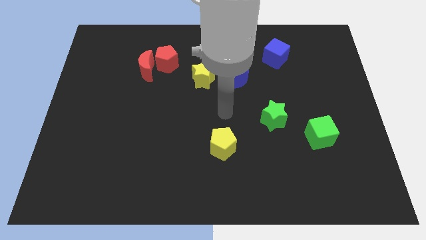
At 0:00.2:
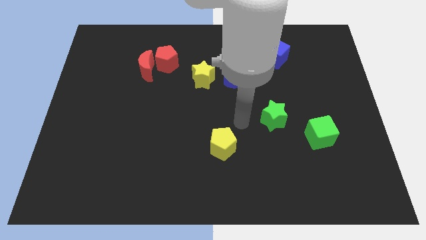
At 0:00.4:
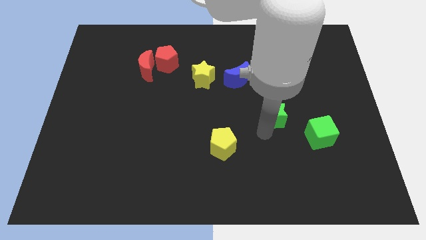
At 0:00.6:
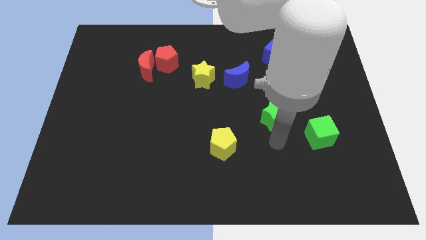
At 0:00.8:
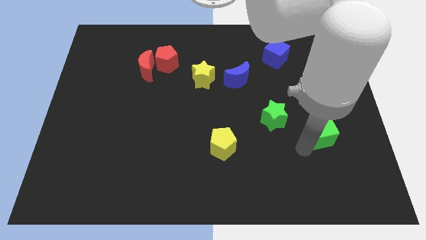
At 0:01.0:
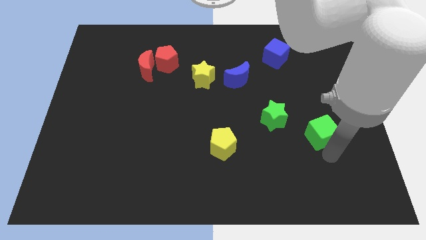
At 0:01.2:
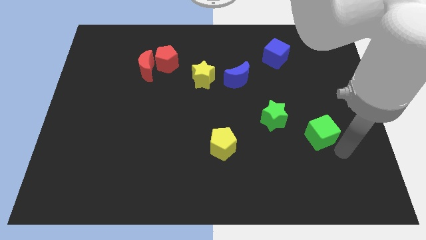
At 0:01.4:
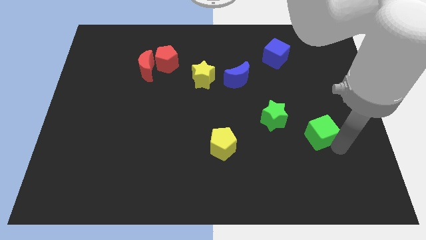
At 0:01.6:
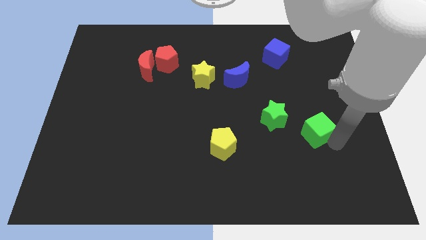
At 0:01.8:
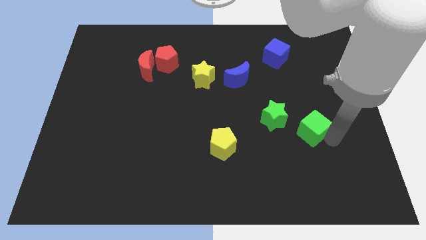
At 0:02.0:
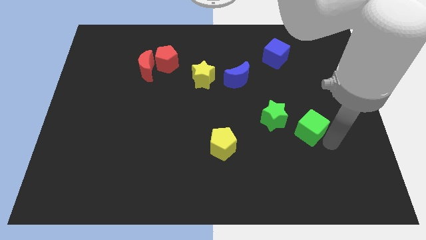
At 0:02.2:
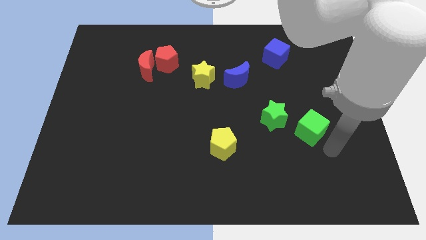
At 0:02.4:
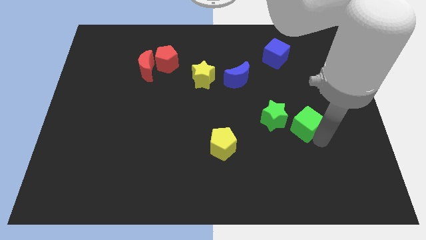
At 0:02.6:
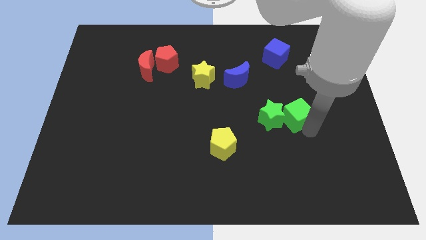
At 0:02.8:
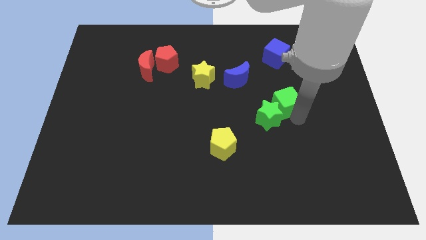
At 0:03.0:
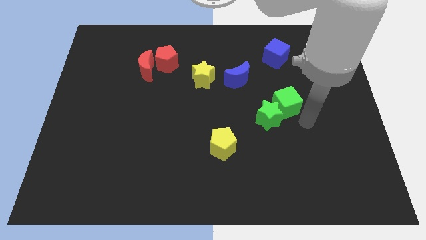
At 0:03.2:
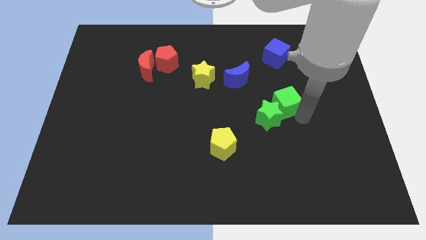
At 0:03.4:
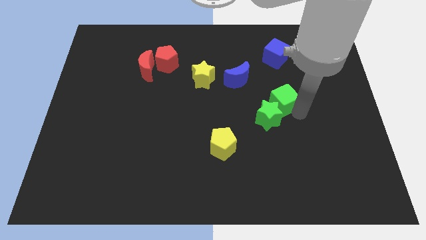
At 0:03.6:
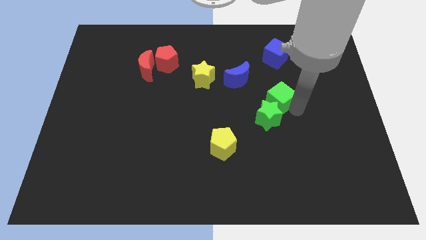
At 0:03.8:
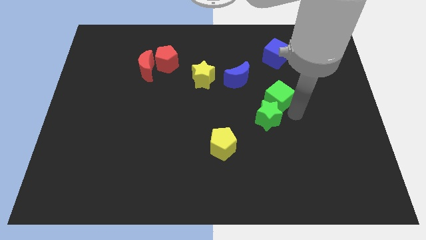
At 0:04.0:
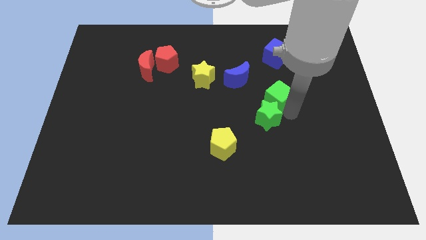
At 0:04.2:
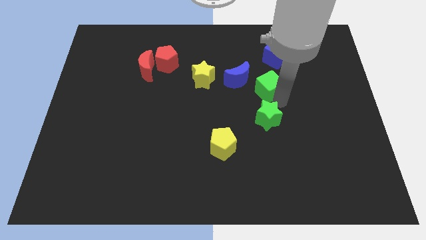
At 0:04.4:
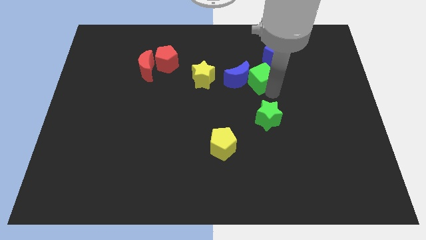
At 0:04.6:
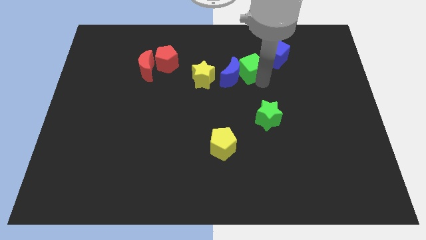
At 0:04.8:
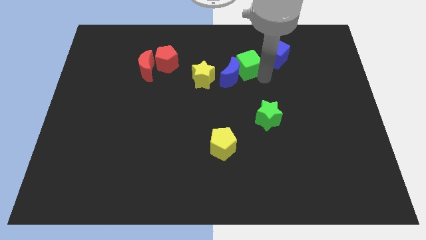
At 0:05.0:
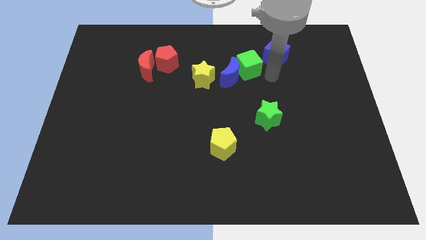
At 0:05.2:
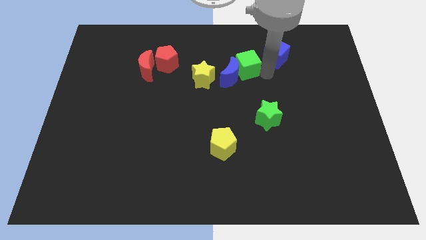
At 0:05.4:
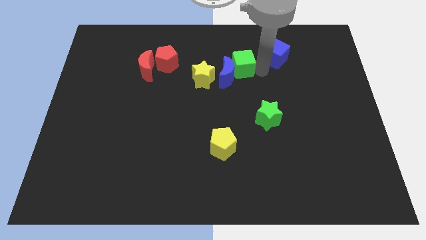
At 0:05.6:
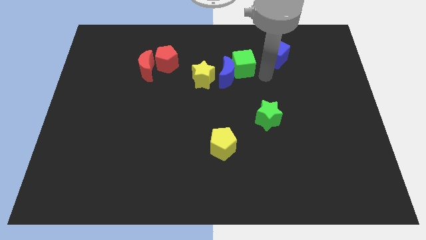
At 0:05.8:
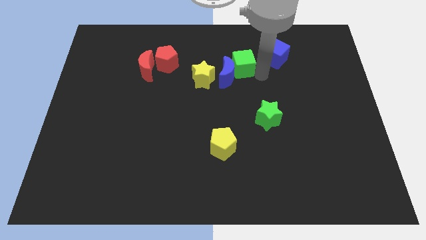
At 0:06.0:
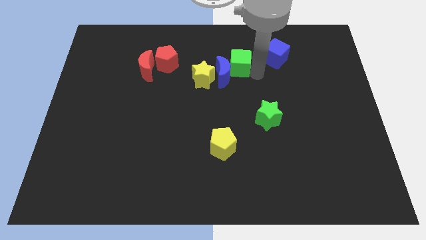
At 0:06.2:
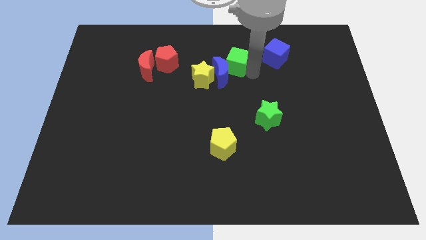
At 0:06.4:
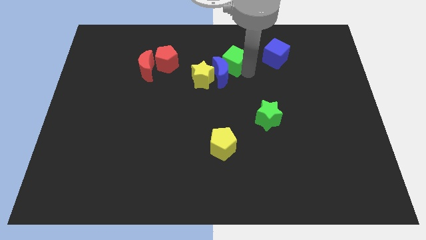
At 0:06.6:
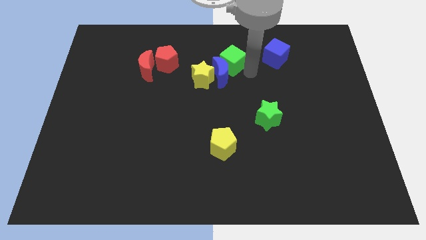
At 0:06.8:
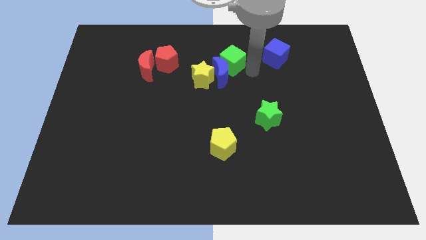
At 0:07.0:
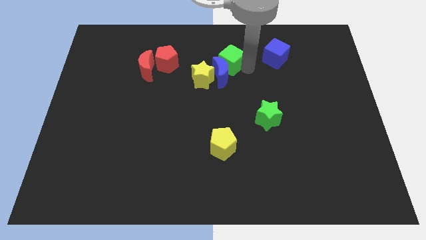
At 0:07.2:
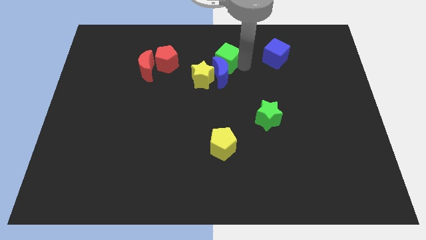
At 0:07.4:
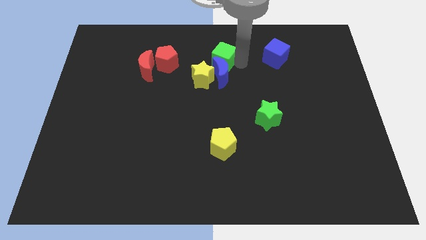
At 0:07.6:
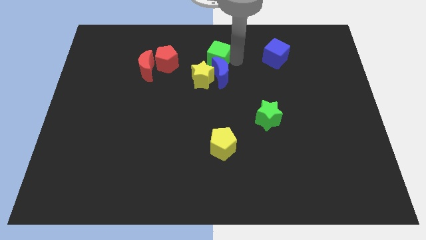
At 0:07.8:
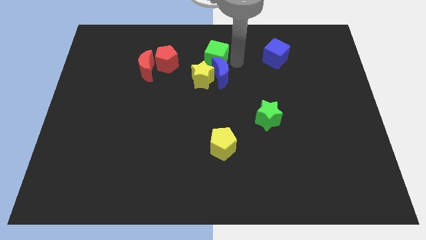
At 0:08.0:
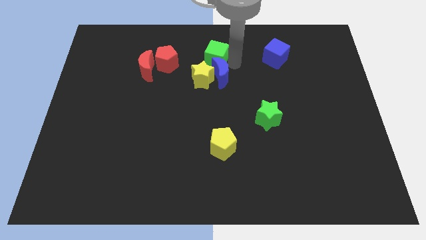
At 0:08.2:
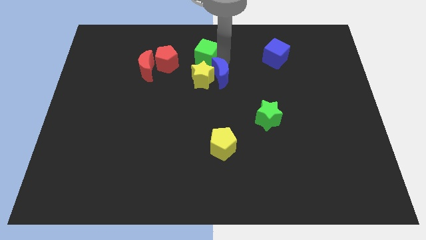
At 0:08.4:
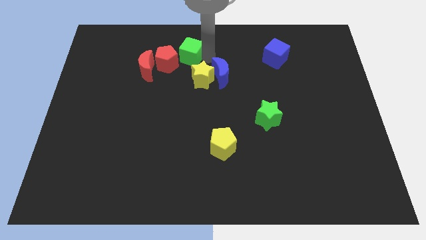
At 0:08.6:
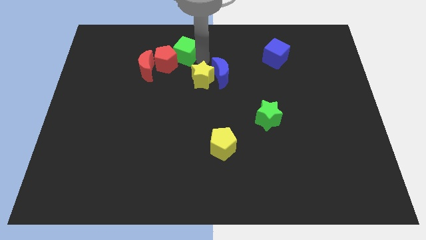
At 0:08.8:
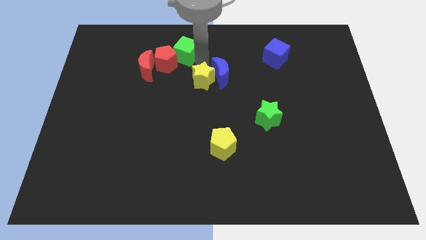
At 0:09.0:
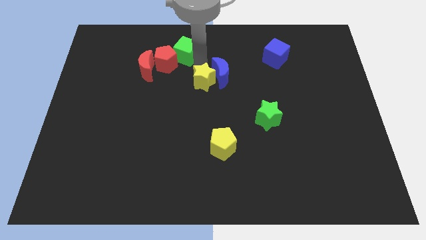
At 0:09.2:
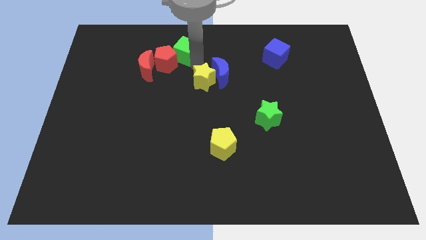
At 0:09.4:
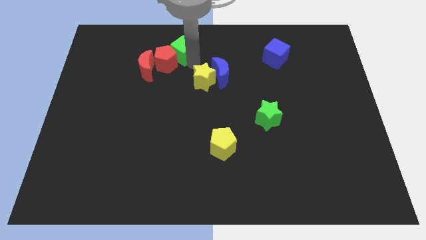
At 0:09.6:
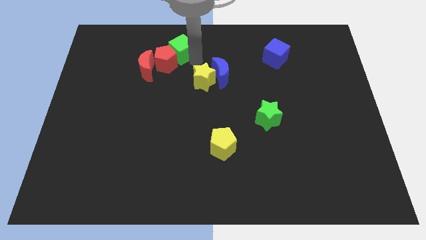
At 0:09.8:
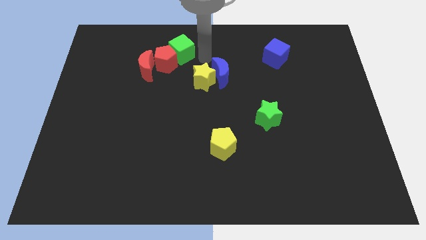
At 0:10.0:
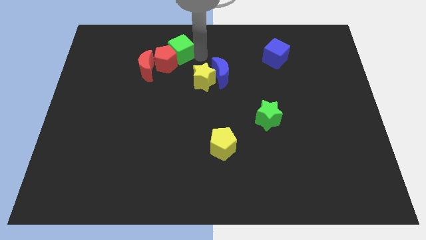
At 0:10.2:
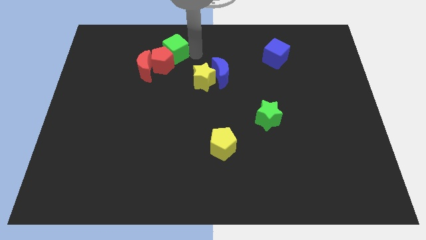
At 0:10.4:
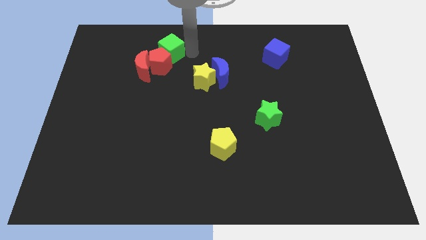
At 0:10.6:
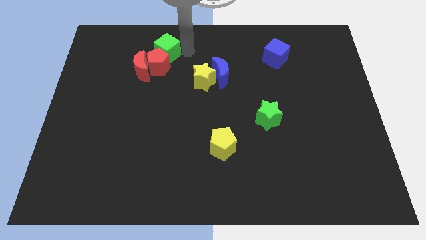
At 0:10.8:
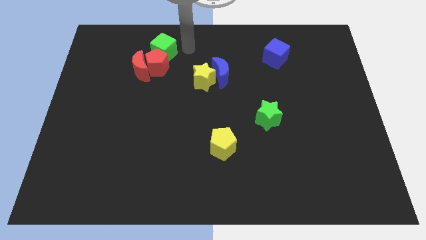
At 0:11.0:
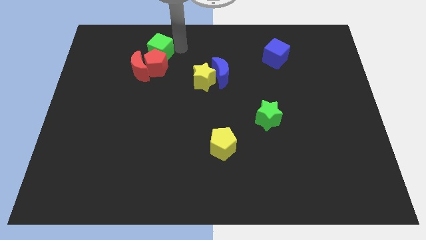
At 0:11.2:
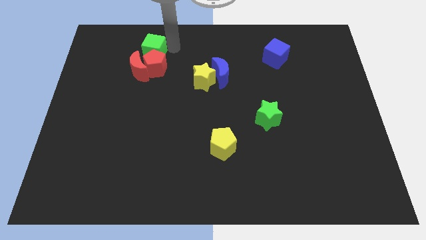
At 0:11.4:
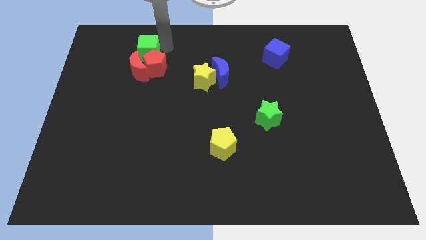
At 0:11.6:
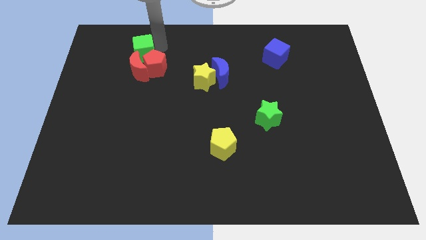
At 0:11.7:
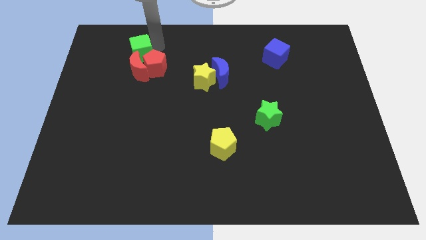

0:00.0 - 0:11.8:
move the green cube diagonally up and to the left of the red moon

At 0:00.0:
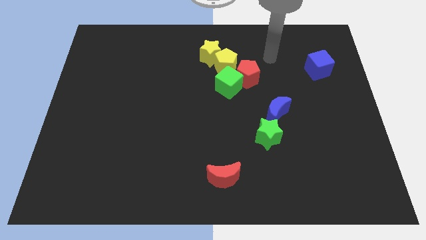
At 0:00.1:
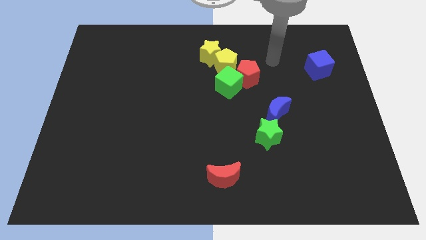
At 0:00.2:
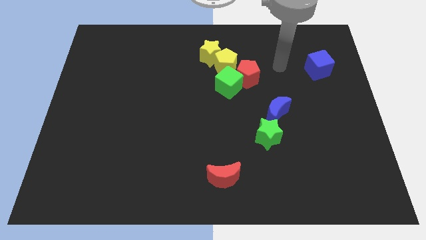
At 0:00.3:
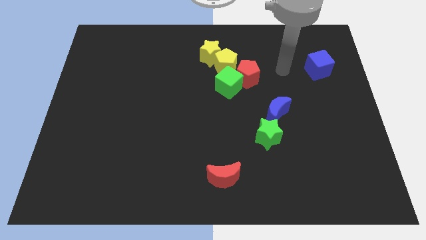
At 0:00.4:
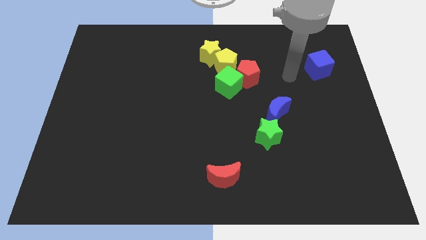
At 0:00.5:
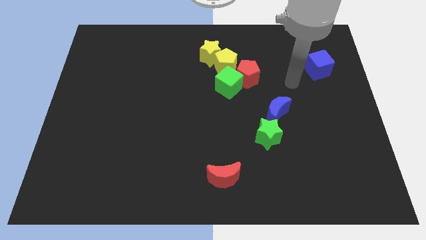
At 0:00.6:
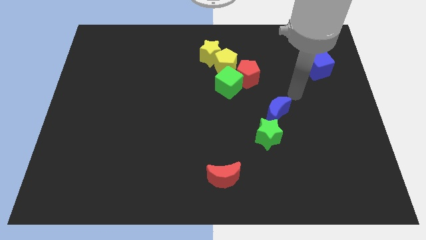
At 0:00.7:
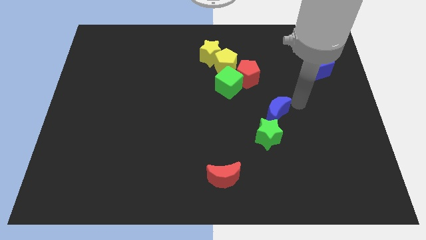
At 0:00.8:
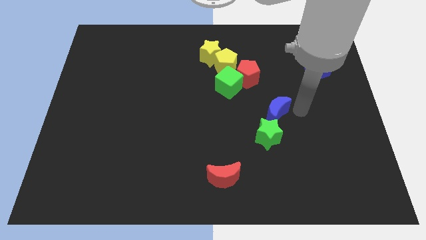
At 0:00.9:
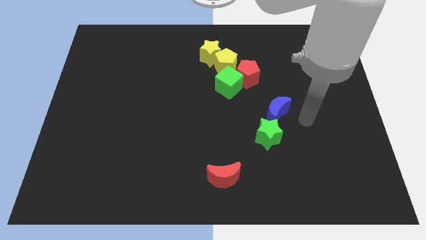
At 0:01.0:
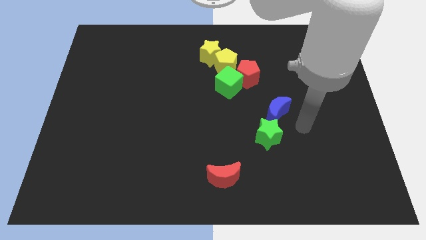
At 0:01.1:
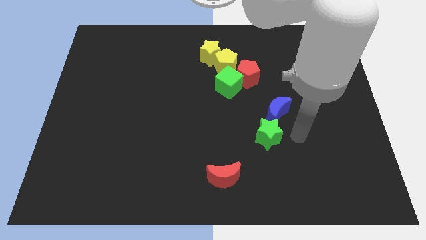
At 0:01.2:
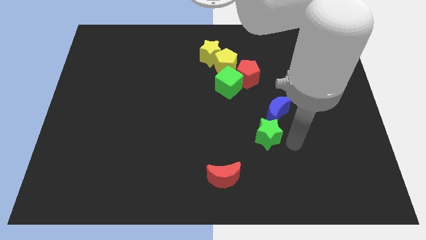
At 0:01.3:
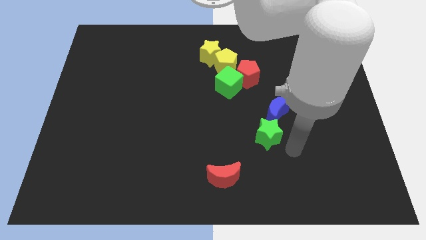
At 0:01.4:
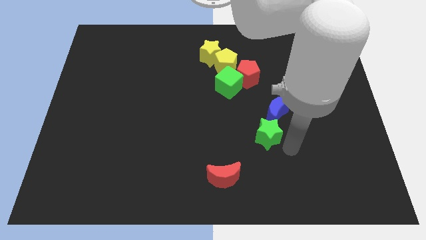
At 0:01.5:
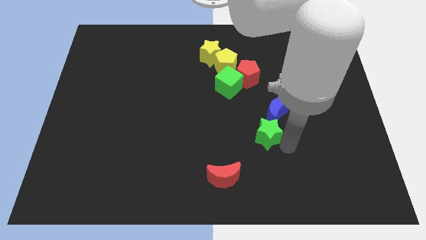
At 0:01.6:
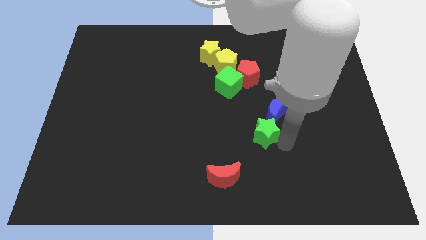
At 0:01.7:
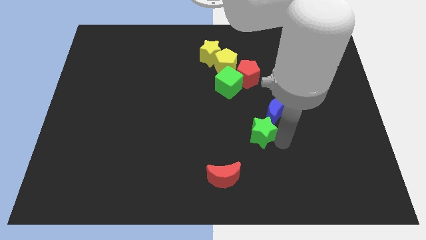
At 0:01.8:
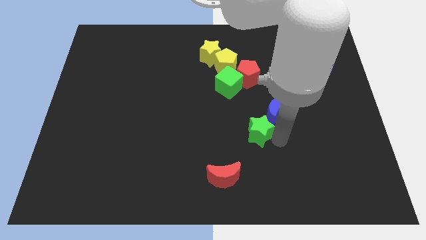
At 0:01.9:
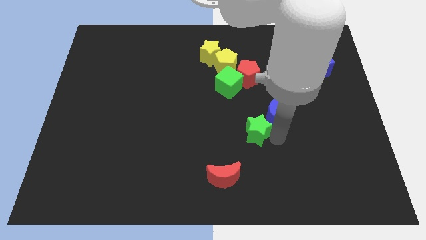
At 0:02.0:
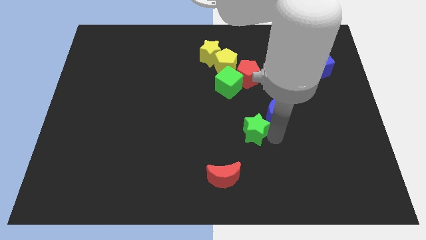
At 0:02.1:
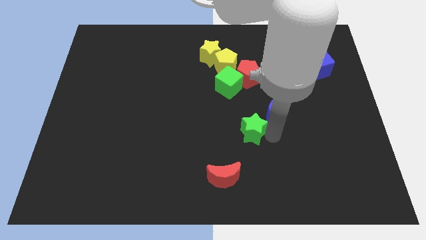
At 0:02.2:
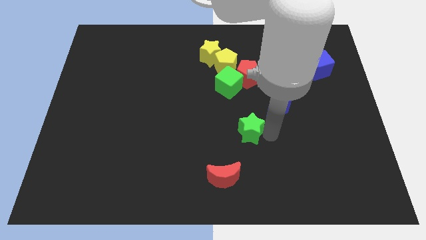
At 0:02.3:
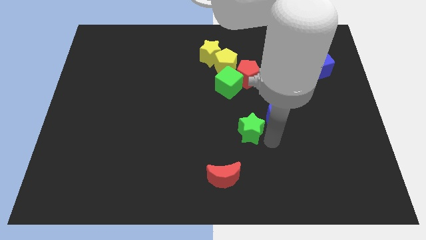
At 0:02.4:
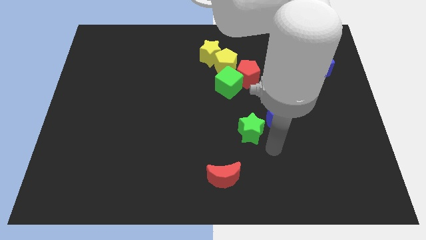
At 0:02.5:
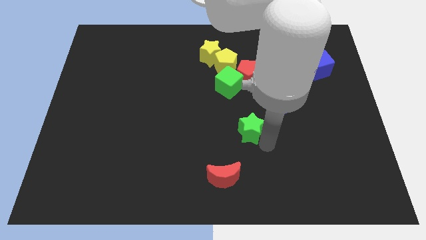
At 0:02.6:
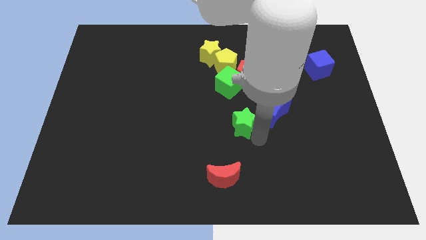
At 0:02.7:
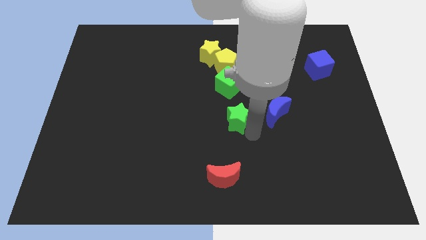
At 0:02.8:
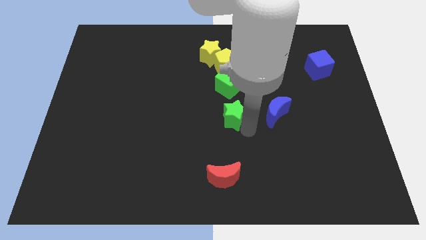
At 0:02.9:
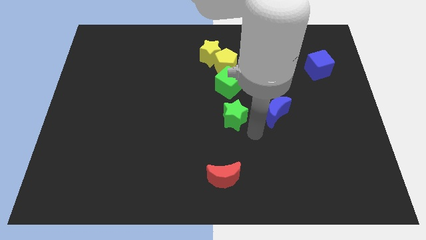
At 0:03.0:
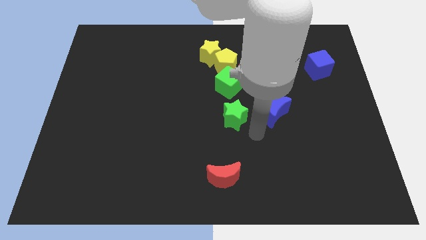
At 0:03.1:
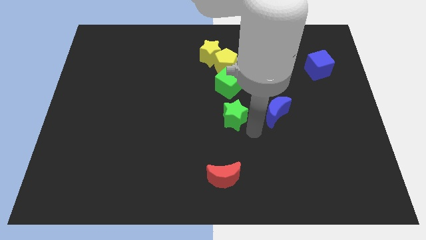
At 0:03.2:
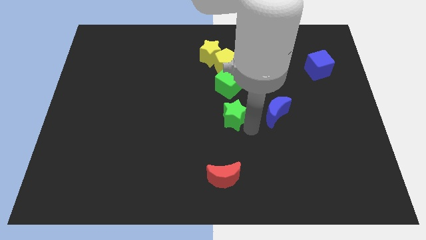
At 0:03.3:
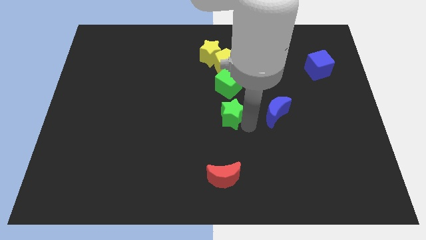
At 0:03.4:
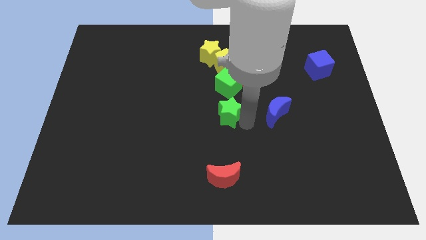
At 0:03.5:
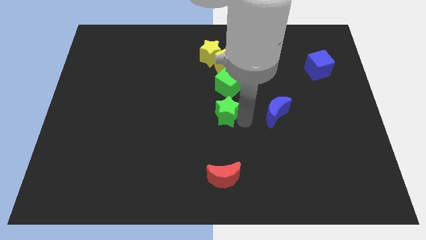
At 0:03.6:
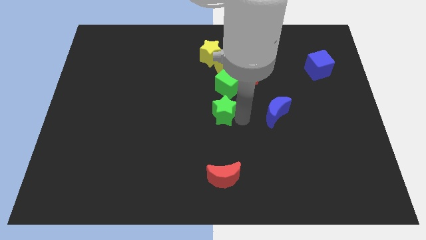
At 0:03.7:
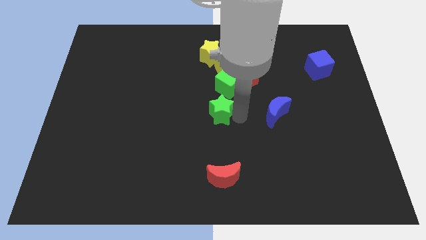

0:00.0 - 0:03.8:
push the green star to the bottom left side of the green cube
